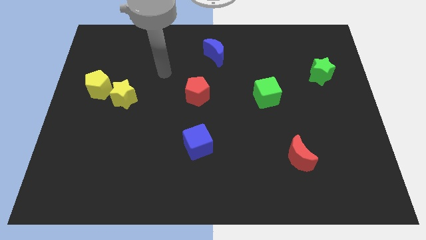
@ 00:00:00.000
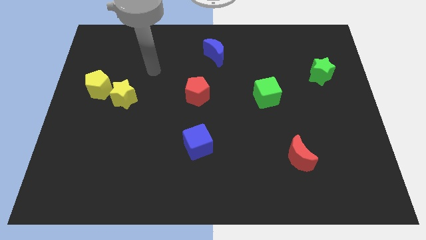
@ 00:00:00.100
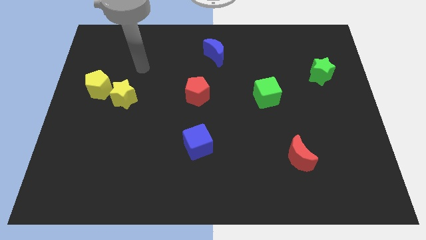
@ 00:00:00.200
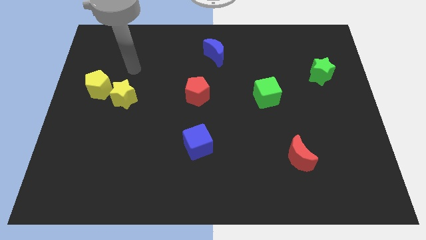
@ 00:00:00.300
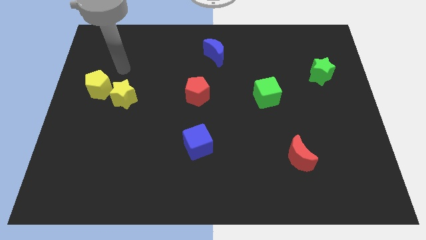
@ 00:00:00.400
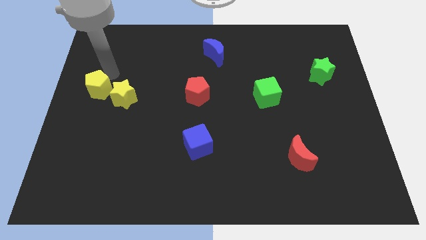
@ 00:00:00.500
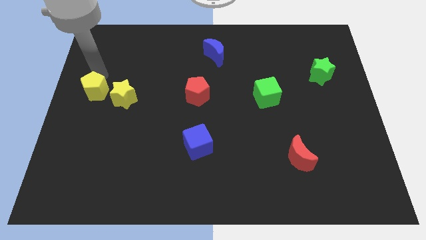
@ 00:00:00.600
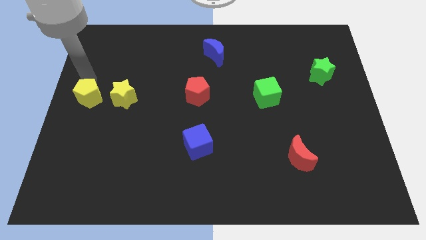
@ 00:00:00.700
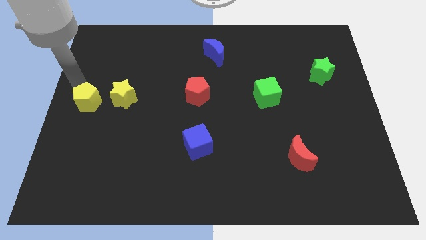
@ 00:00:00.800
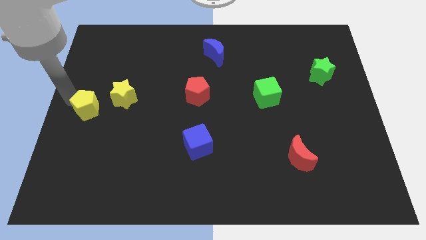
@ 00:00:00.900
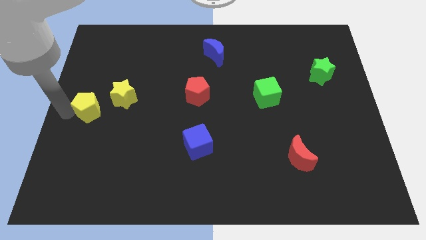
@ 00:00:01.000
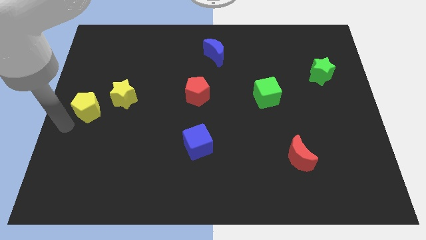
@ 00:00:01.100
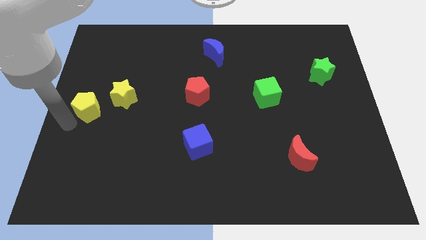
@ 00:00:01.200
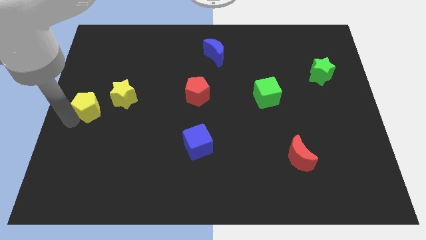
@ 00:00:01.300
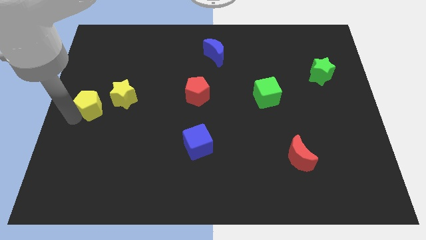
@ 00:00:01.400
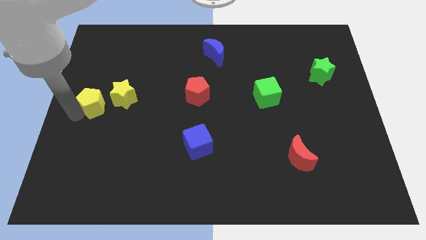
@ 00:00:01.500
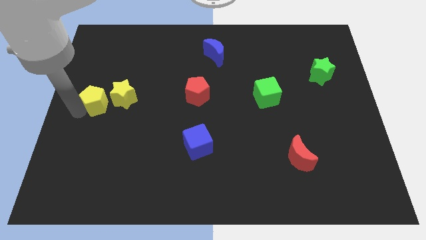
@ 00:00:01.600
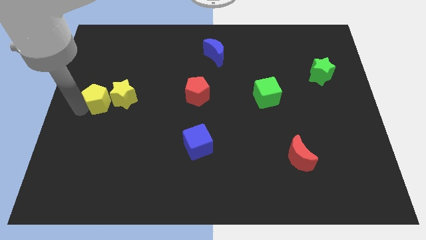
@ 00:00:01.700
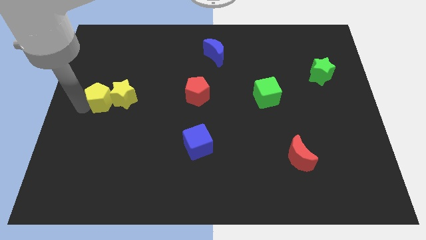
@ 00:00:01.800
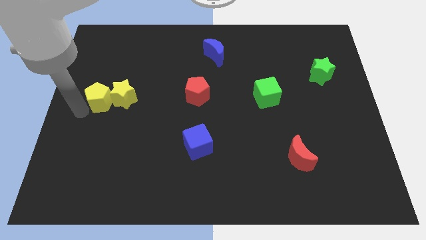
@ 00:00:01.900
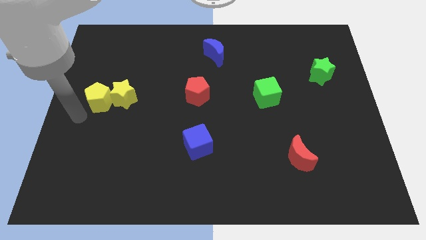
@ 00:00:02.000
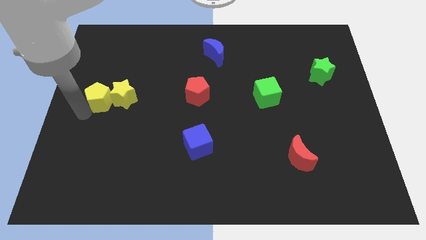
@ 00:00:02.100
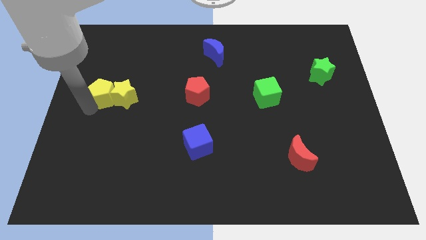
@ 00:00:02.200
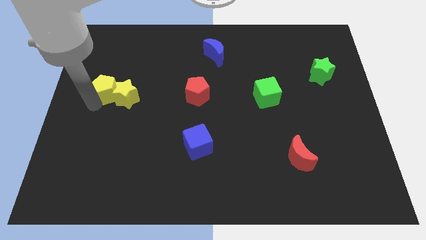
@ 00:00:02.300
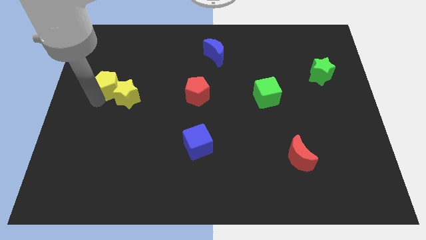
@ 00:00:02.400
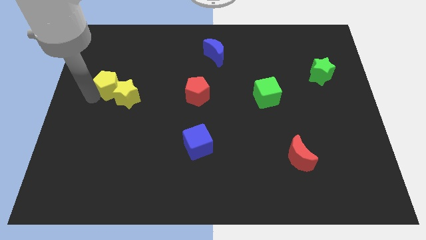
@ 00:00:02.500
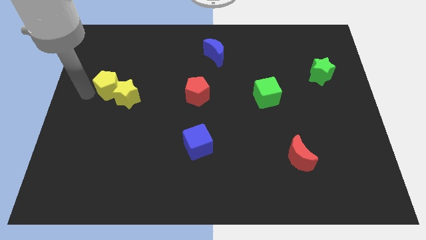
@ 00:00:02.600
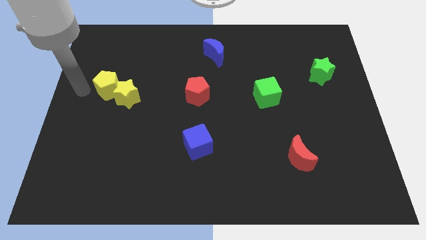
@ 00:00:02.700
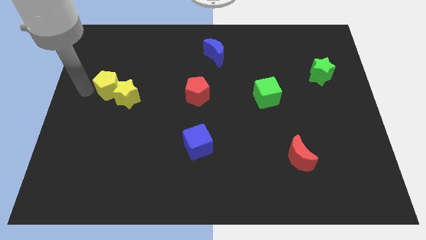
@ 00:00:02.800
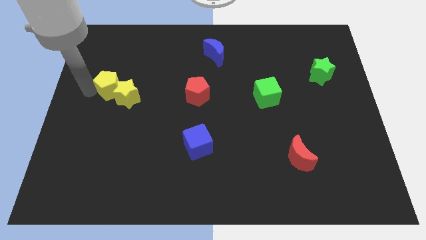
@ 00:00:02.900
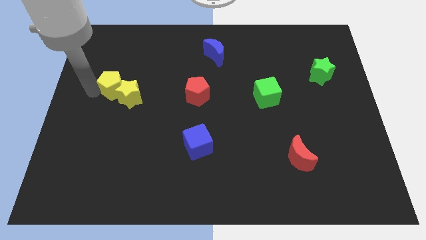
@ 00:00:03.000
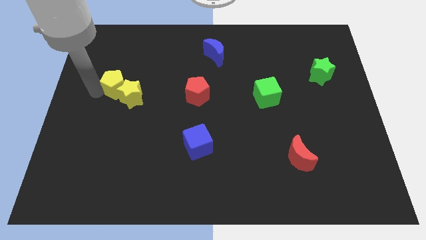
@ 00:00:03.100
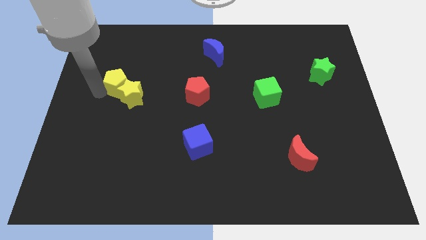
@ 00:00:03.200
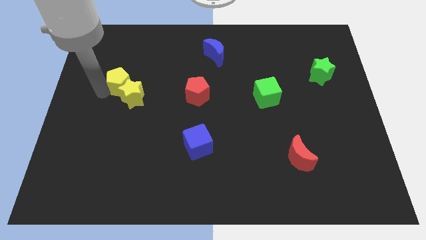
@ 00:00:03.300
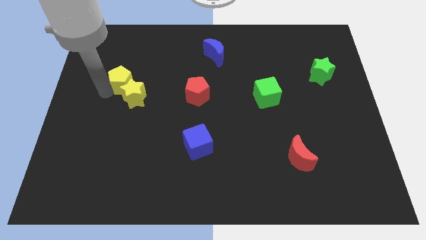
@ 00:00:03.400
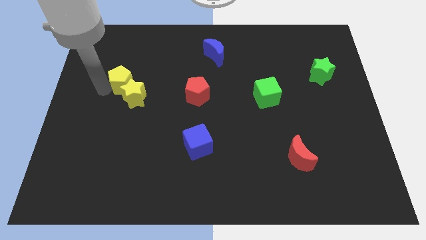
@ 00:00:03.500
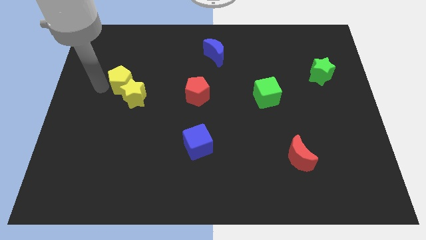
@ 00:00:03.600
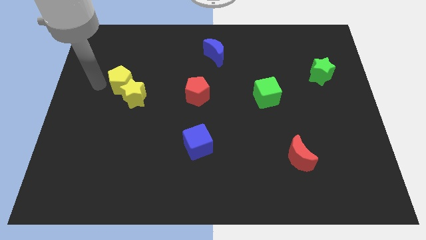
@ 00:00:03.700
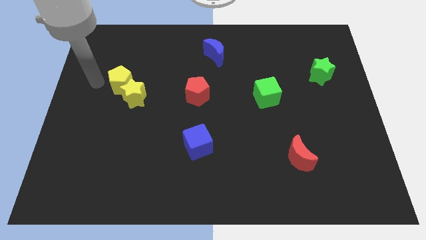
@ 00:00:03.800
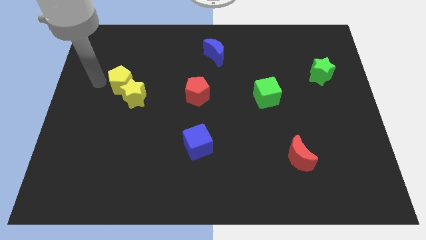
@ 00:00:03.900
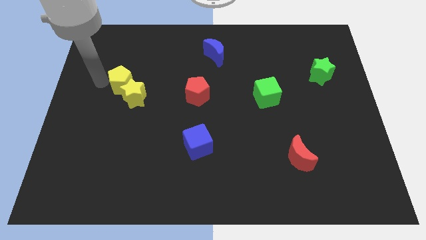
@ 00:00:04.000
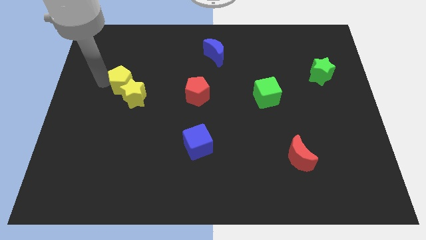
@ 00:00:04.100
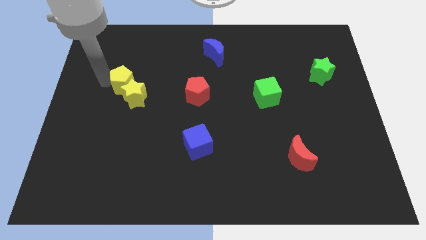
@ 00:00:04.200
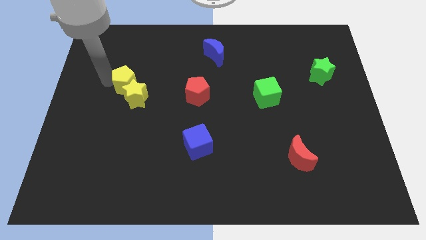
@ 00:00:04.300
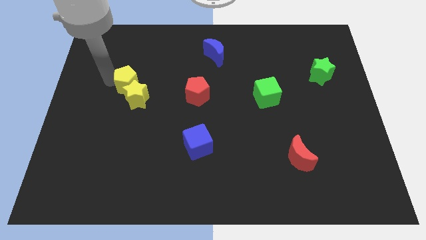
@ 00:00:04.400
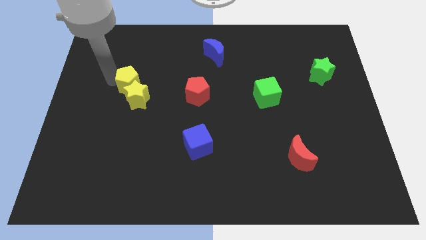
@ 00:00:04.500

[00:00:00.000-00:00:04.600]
slightly push the yellow pentagon to the right

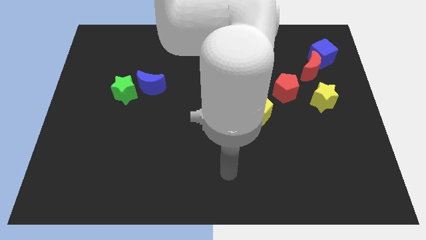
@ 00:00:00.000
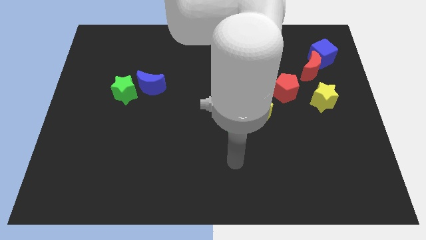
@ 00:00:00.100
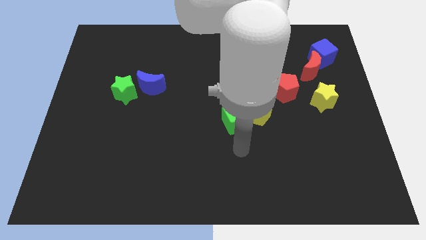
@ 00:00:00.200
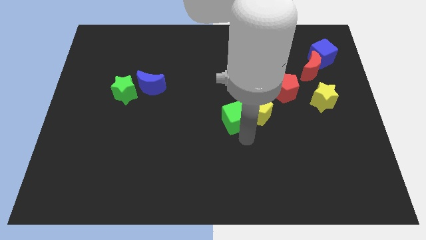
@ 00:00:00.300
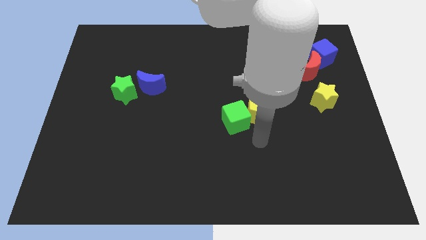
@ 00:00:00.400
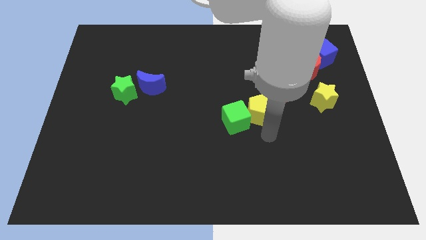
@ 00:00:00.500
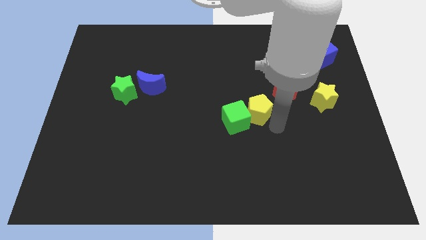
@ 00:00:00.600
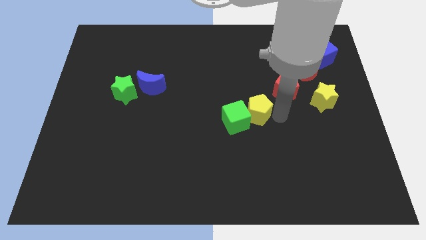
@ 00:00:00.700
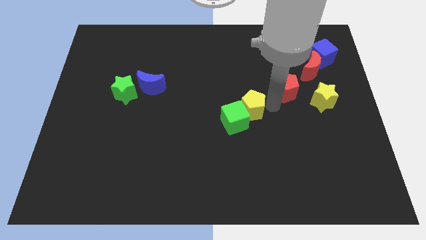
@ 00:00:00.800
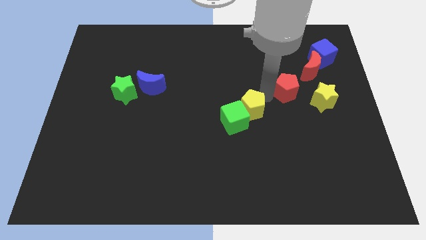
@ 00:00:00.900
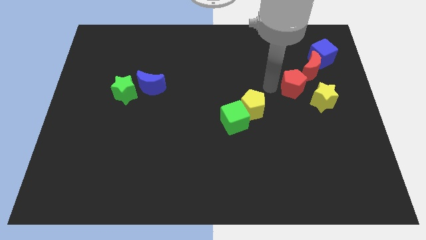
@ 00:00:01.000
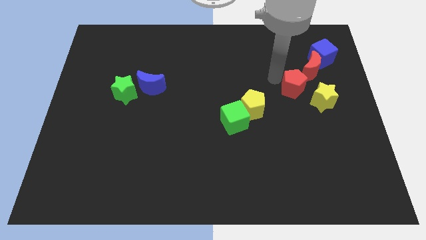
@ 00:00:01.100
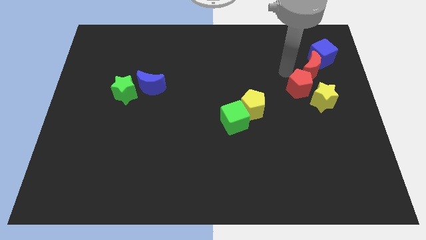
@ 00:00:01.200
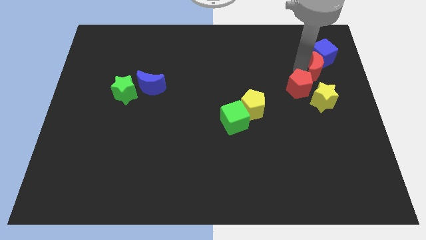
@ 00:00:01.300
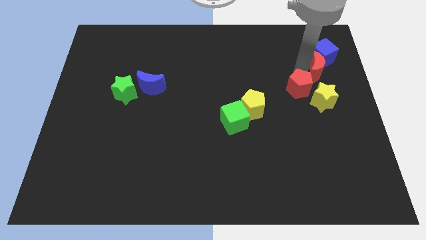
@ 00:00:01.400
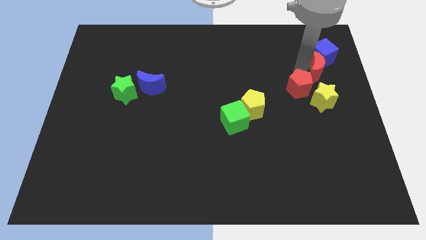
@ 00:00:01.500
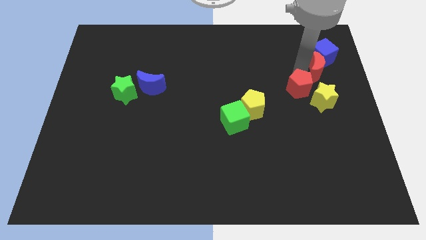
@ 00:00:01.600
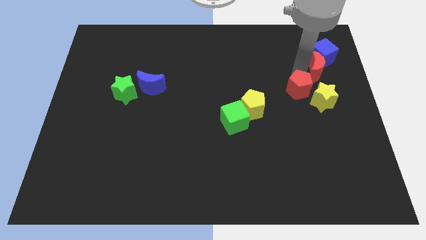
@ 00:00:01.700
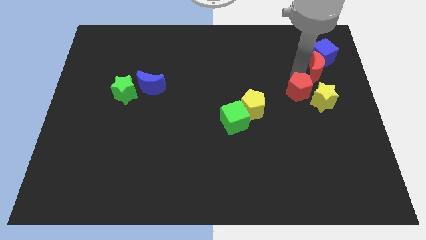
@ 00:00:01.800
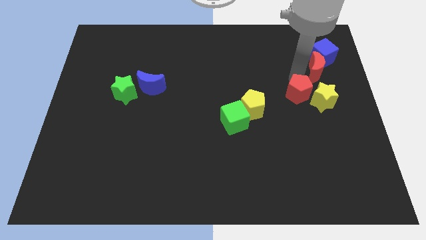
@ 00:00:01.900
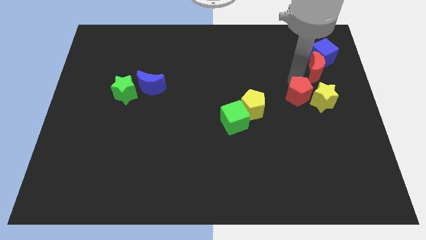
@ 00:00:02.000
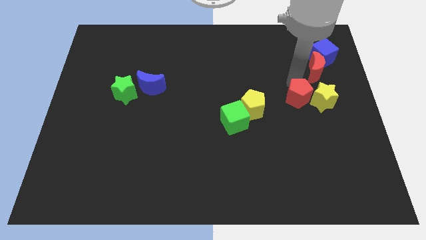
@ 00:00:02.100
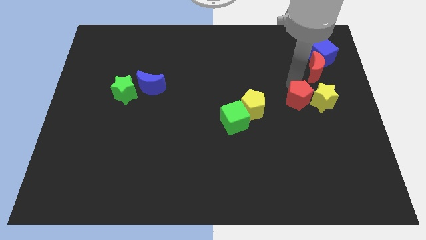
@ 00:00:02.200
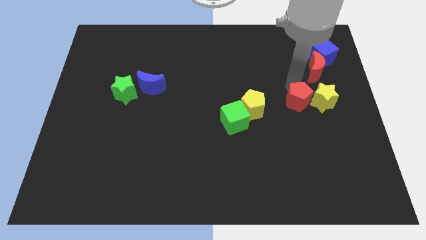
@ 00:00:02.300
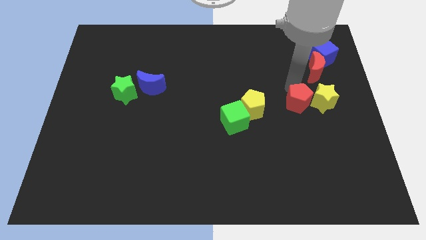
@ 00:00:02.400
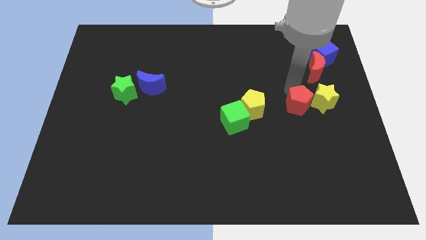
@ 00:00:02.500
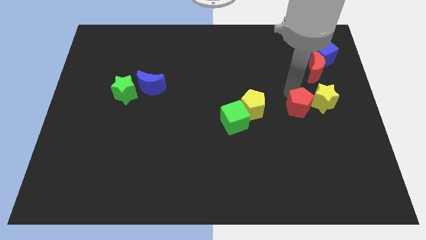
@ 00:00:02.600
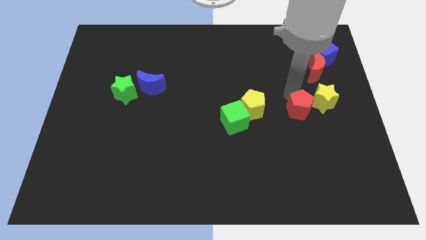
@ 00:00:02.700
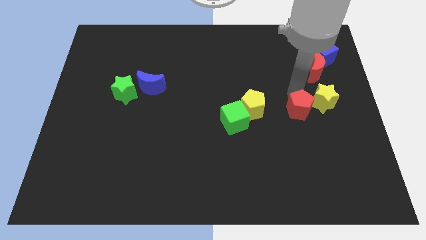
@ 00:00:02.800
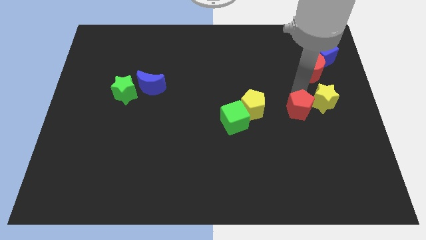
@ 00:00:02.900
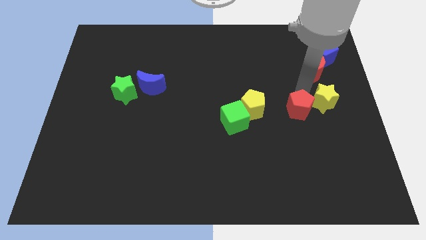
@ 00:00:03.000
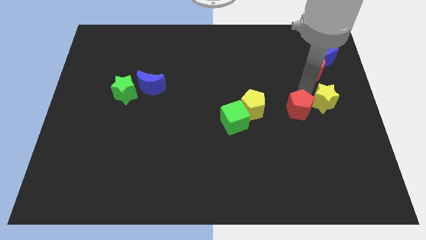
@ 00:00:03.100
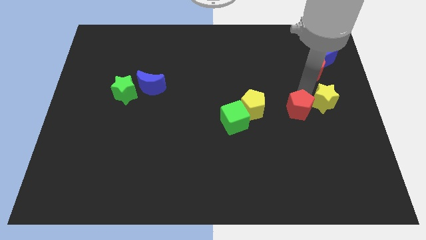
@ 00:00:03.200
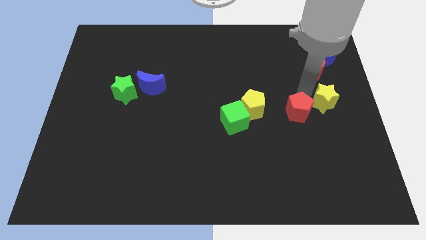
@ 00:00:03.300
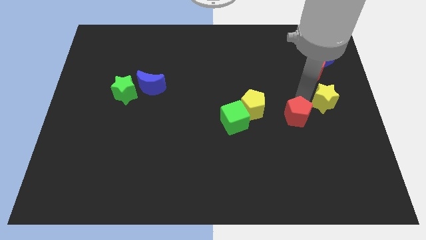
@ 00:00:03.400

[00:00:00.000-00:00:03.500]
slide the red pentagon a little down
